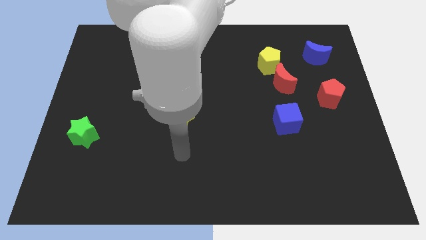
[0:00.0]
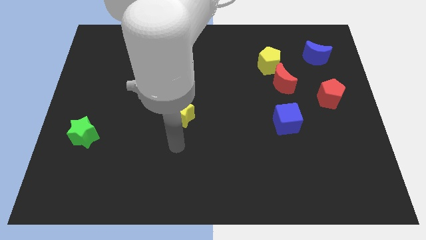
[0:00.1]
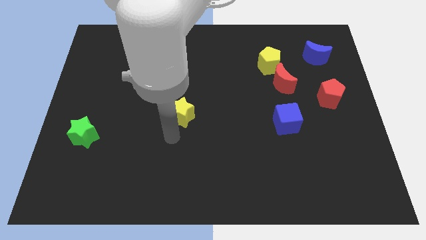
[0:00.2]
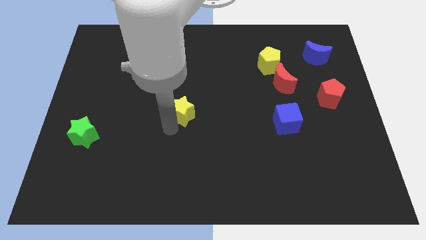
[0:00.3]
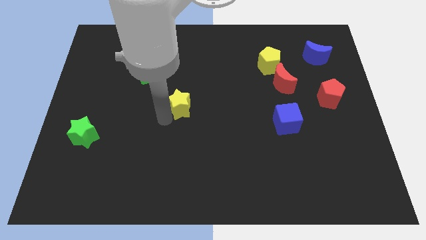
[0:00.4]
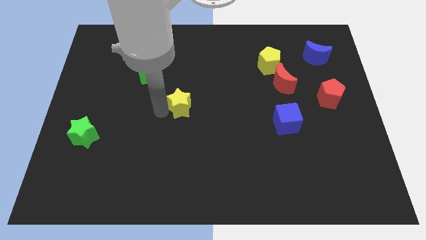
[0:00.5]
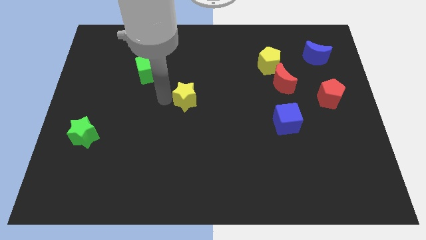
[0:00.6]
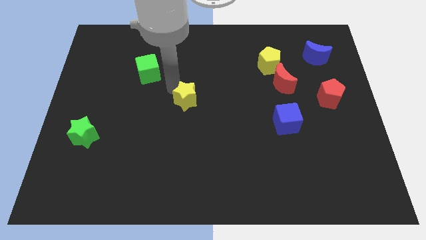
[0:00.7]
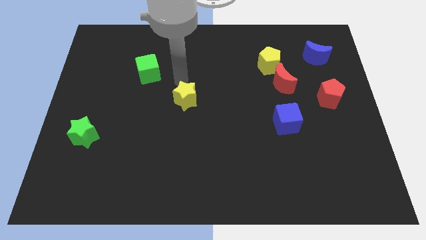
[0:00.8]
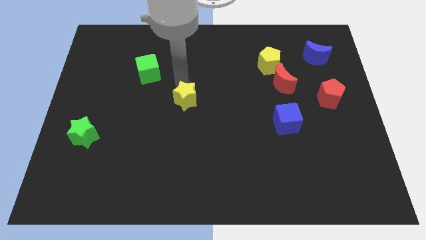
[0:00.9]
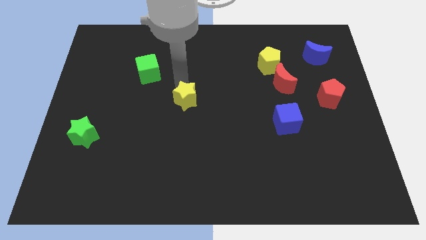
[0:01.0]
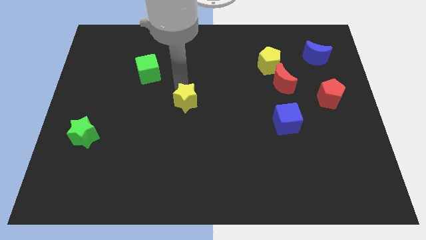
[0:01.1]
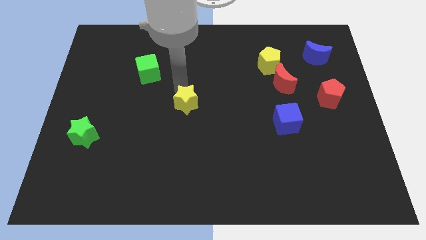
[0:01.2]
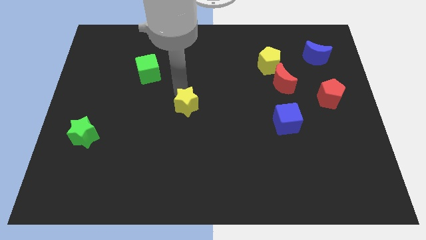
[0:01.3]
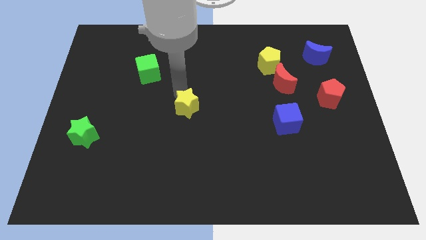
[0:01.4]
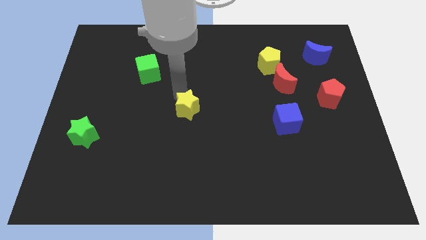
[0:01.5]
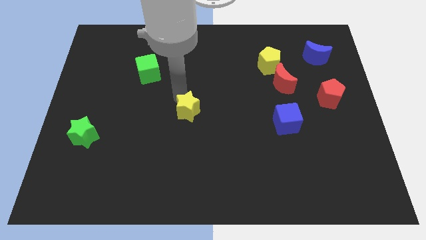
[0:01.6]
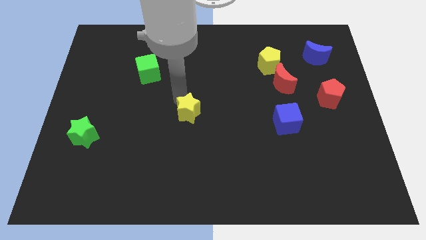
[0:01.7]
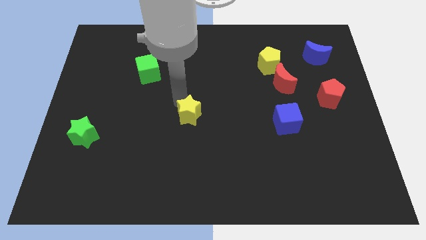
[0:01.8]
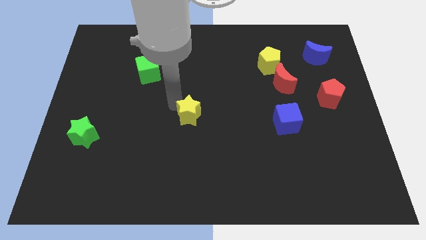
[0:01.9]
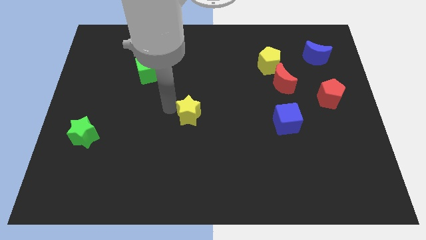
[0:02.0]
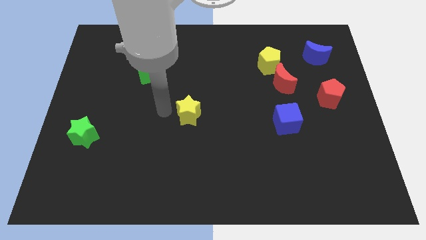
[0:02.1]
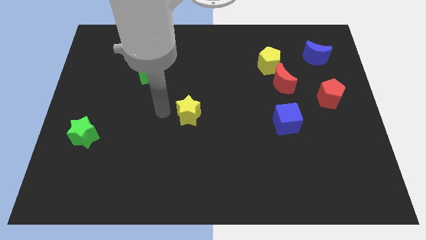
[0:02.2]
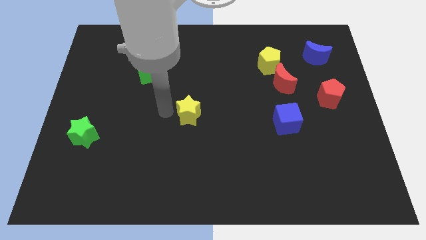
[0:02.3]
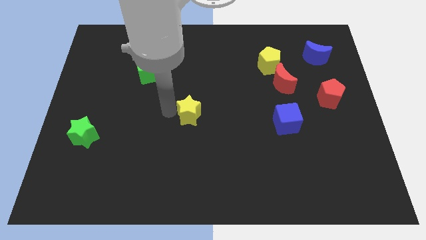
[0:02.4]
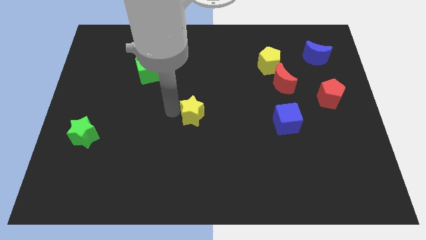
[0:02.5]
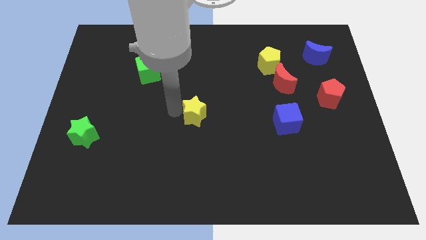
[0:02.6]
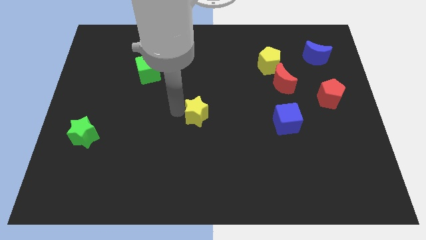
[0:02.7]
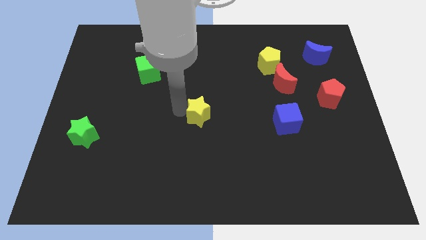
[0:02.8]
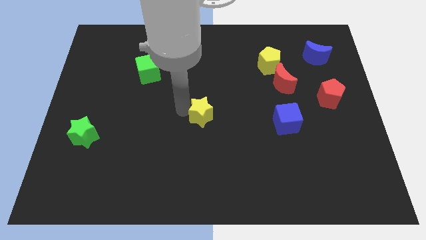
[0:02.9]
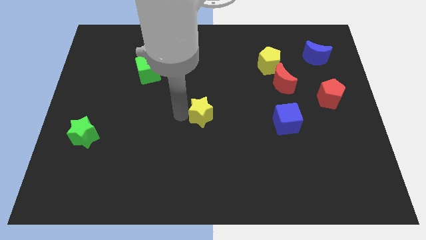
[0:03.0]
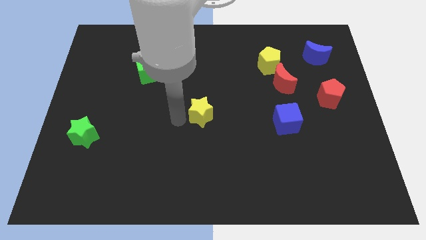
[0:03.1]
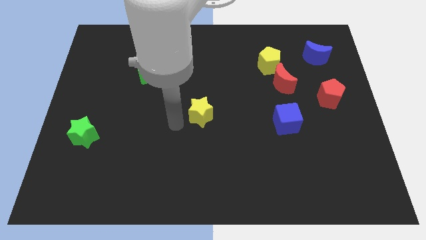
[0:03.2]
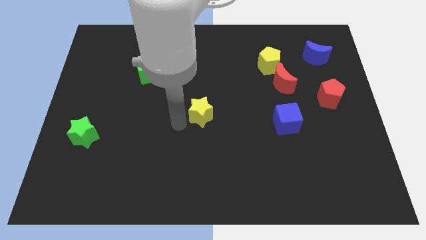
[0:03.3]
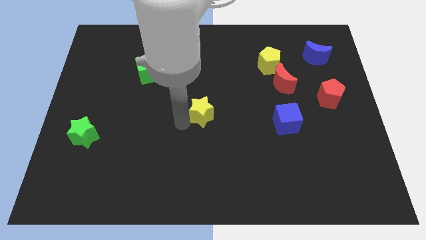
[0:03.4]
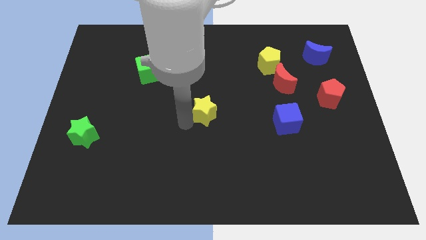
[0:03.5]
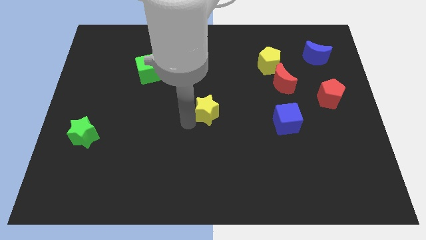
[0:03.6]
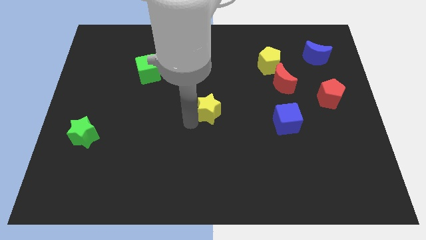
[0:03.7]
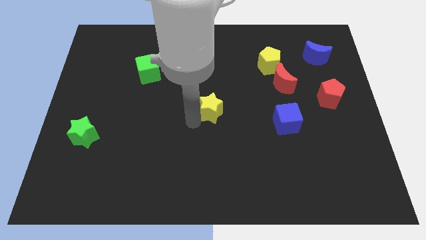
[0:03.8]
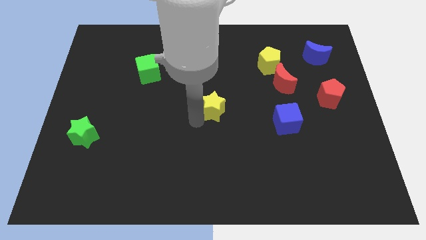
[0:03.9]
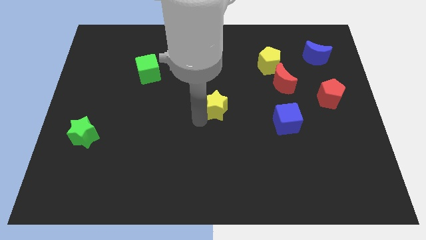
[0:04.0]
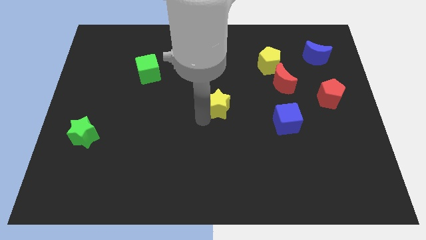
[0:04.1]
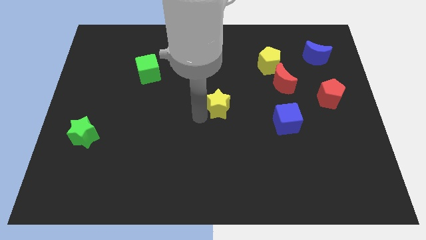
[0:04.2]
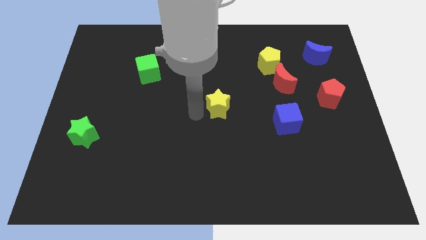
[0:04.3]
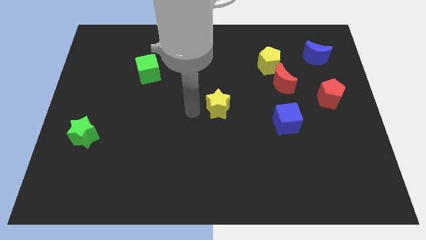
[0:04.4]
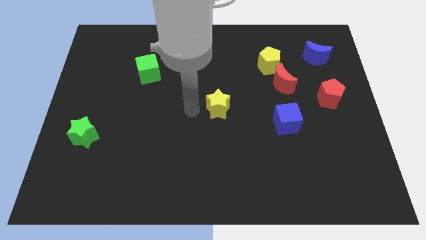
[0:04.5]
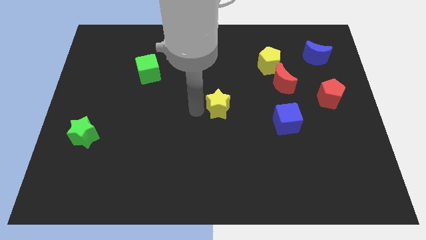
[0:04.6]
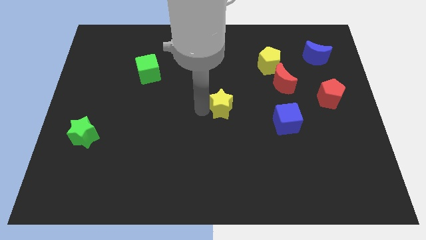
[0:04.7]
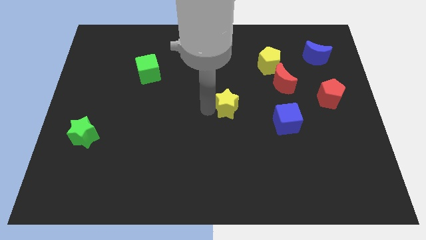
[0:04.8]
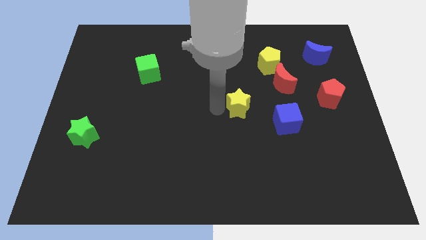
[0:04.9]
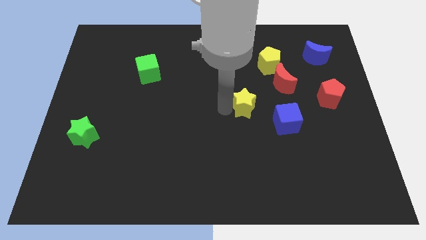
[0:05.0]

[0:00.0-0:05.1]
put the yellow star diagonally down and to the left of the red moon

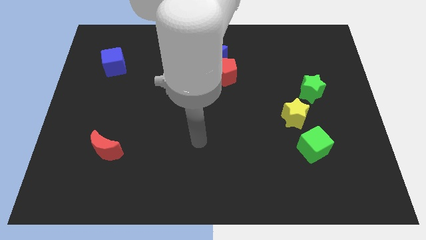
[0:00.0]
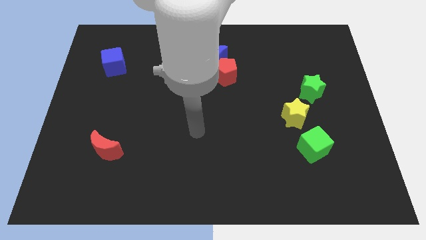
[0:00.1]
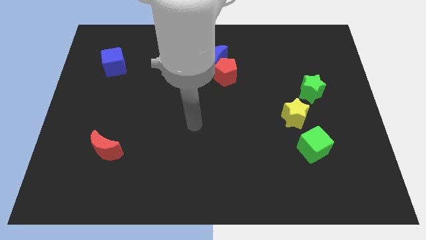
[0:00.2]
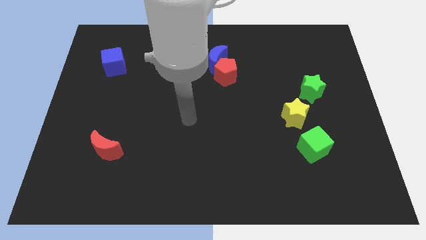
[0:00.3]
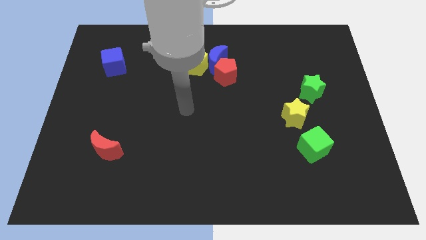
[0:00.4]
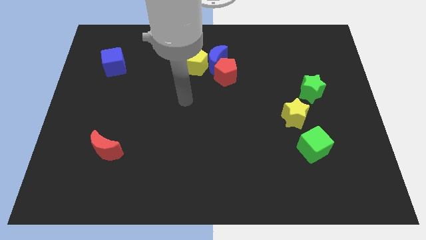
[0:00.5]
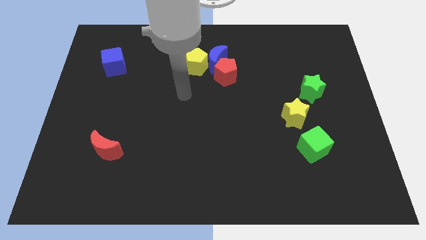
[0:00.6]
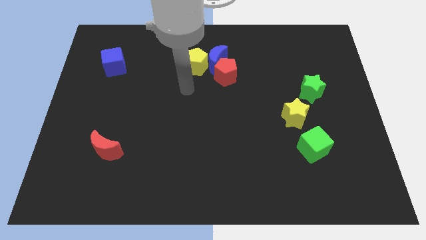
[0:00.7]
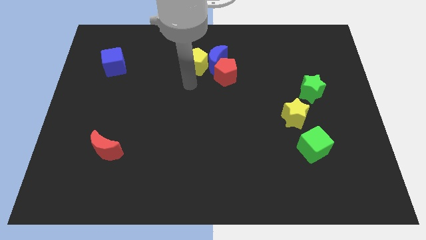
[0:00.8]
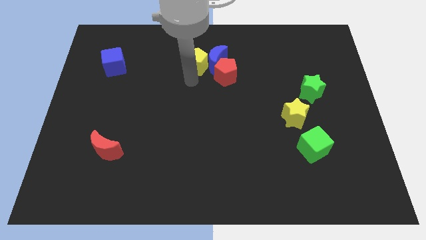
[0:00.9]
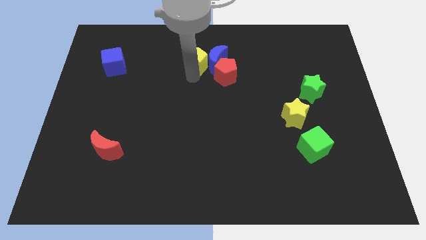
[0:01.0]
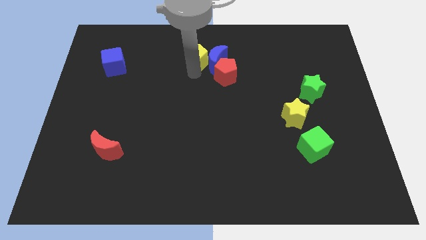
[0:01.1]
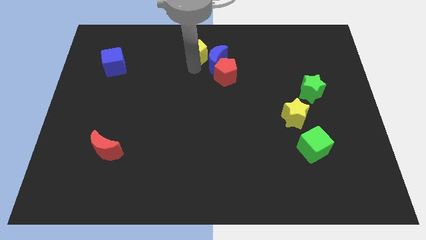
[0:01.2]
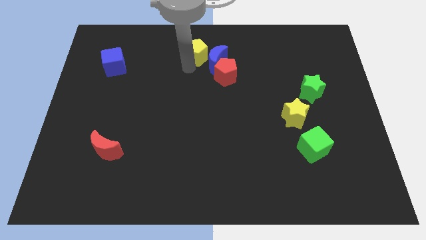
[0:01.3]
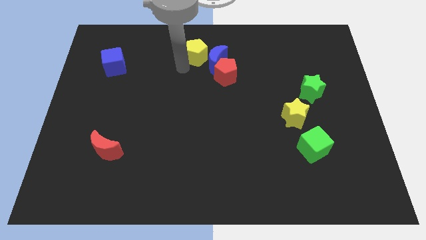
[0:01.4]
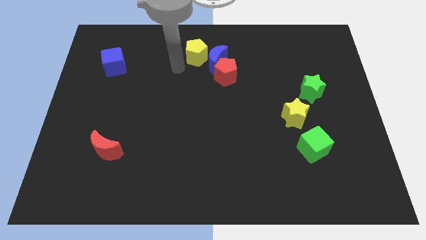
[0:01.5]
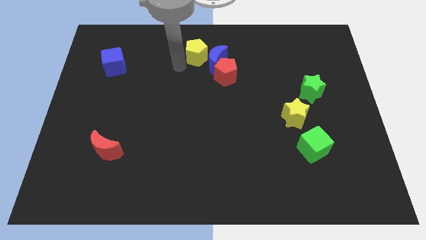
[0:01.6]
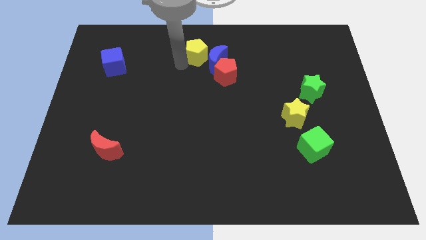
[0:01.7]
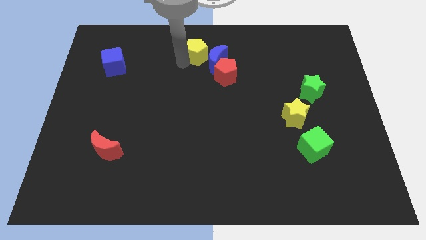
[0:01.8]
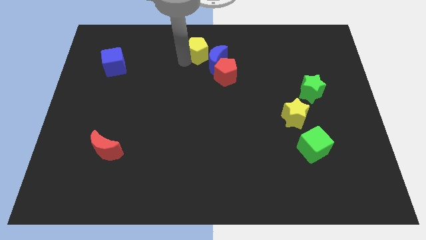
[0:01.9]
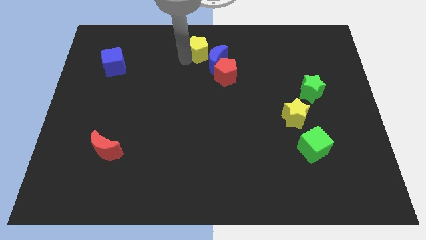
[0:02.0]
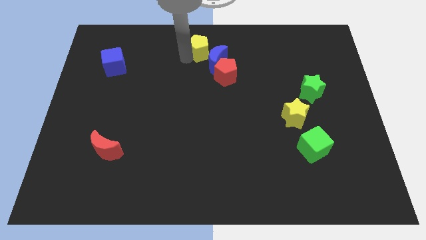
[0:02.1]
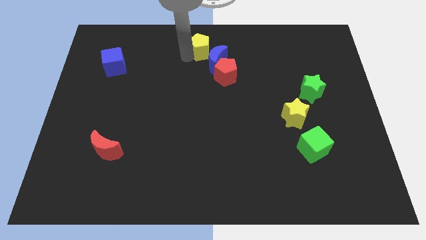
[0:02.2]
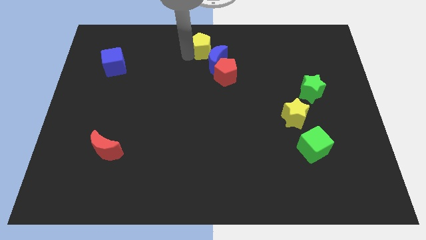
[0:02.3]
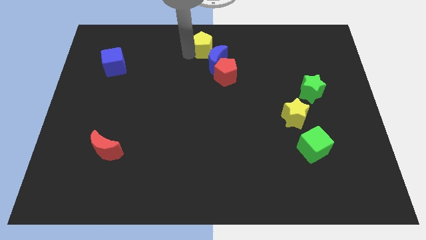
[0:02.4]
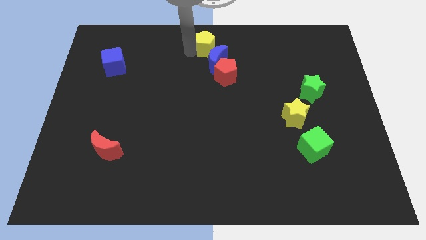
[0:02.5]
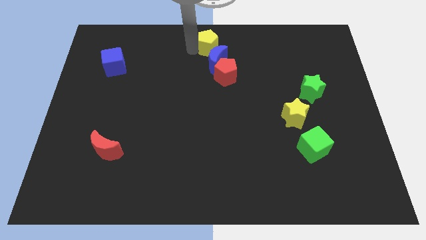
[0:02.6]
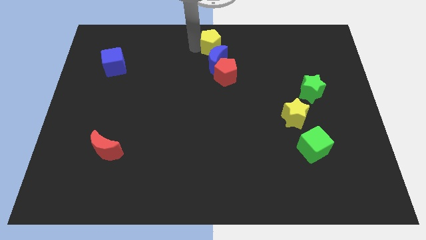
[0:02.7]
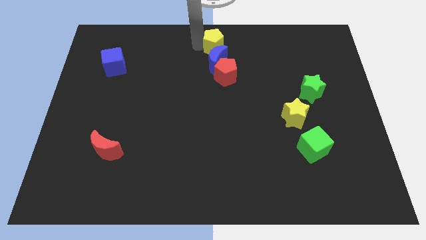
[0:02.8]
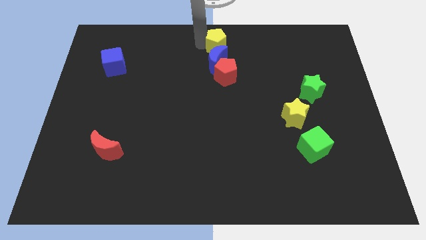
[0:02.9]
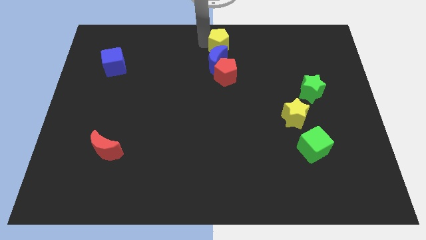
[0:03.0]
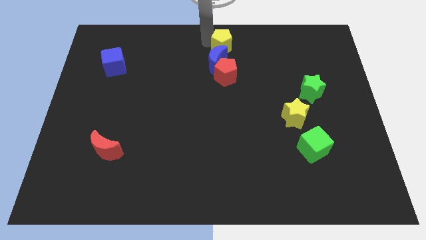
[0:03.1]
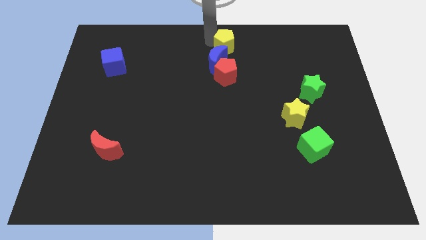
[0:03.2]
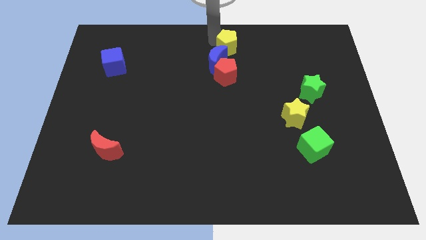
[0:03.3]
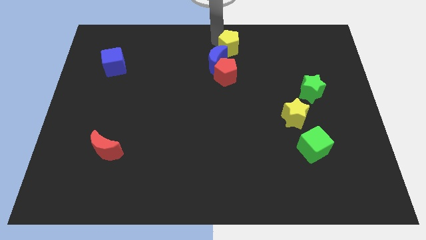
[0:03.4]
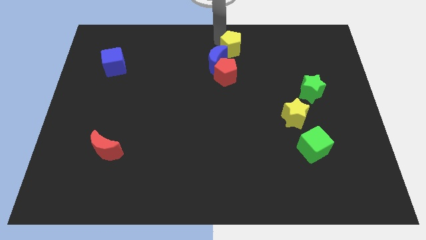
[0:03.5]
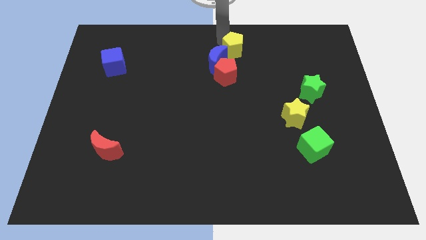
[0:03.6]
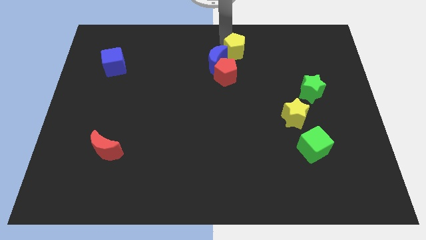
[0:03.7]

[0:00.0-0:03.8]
slide the yellow pentagon to the top right side of the red pentagon
